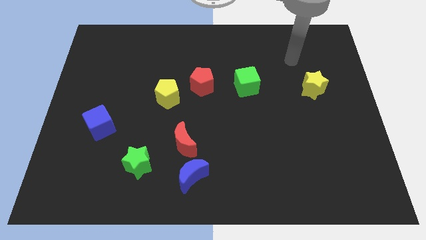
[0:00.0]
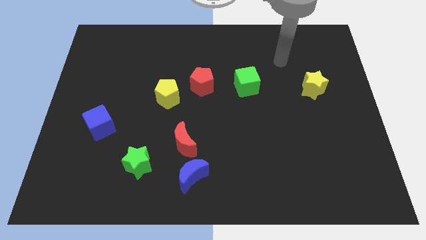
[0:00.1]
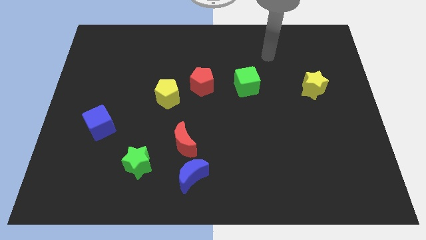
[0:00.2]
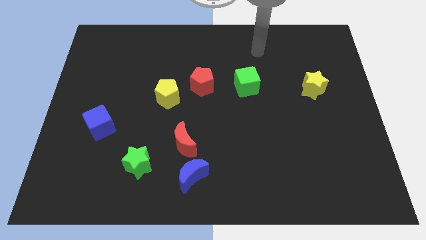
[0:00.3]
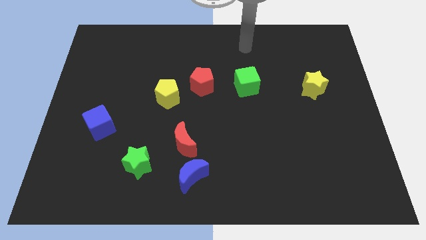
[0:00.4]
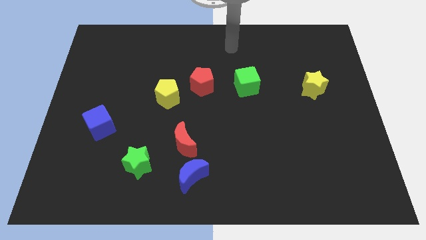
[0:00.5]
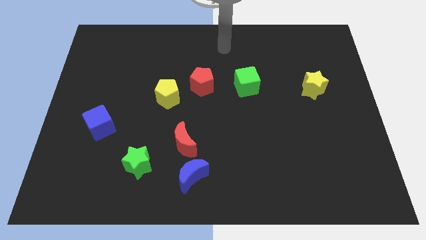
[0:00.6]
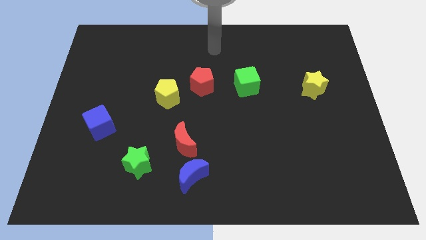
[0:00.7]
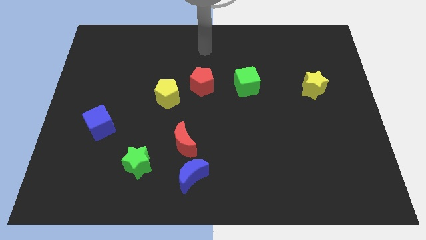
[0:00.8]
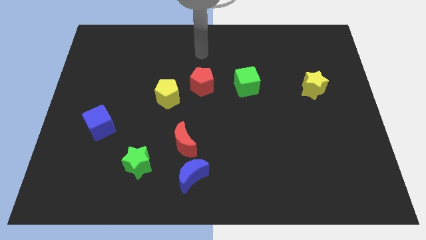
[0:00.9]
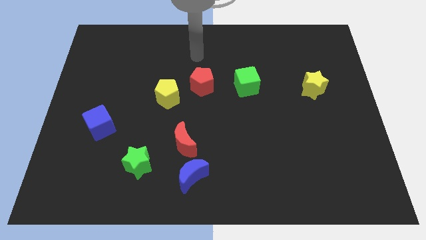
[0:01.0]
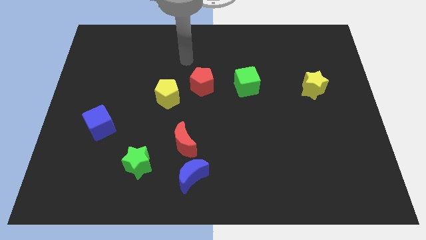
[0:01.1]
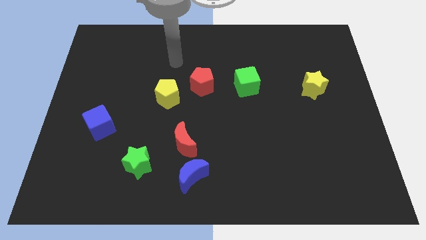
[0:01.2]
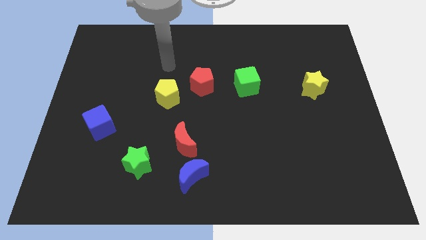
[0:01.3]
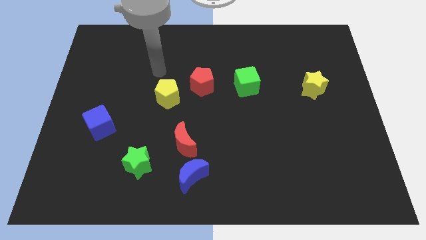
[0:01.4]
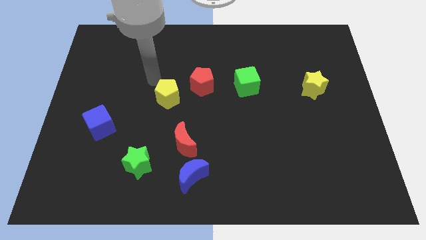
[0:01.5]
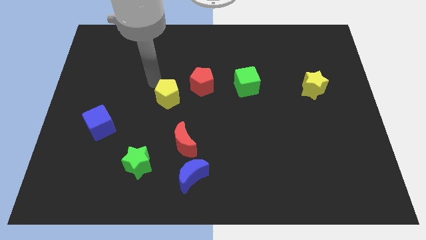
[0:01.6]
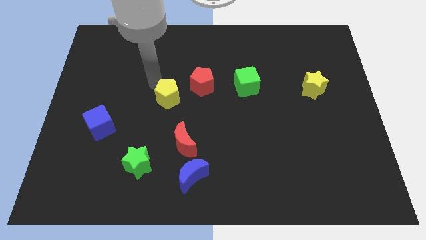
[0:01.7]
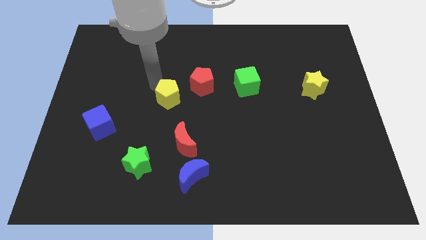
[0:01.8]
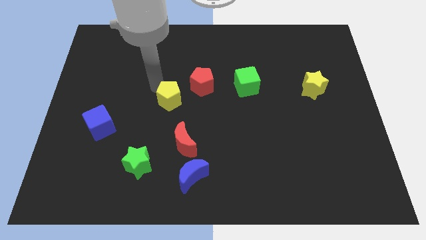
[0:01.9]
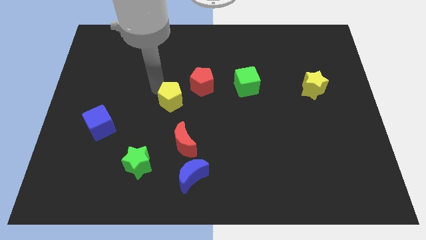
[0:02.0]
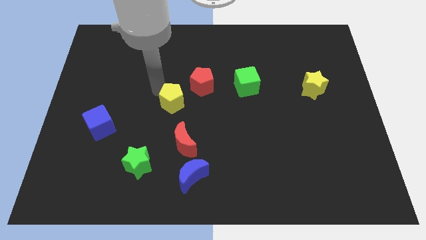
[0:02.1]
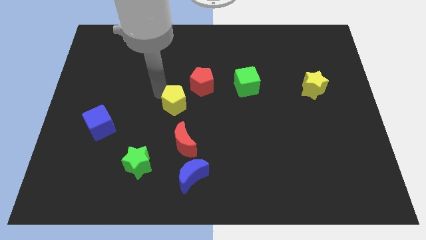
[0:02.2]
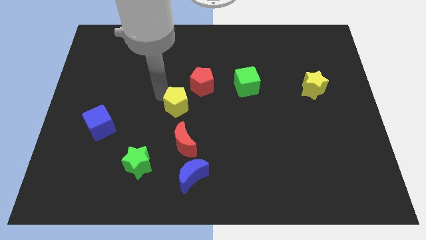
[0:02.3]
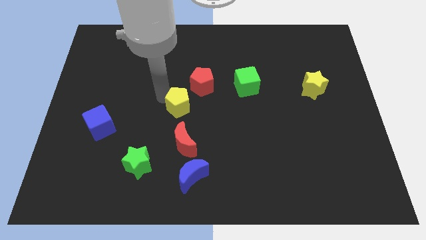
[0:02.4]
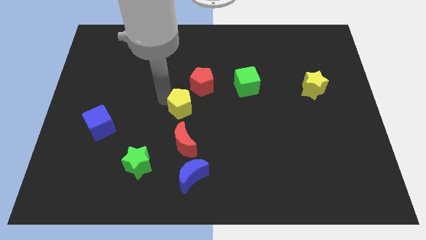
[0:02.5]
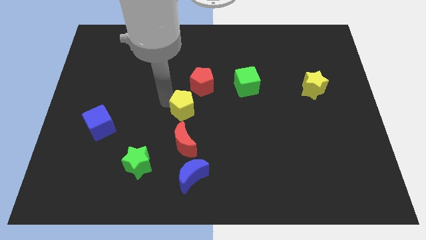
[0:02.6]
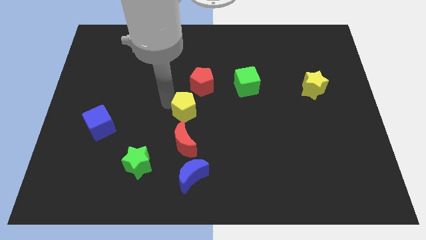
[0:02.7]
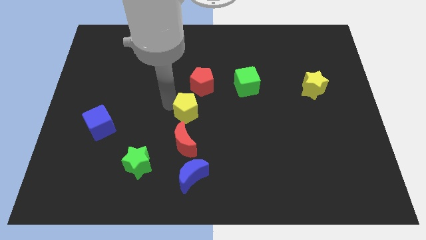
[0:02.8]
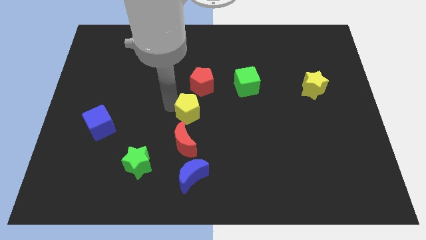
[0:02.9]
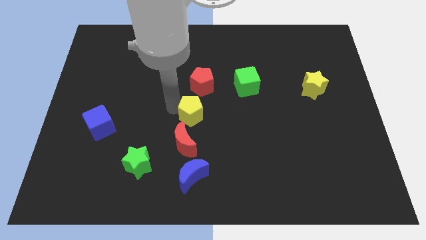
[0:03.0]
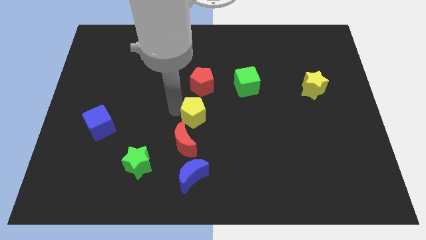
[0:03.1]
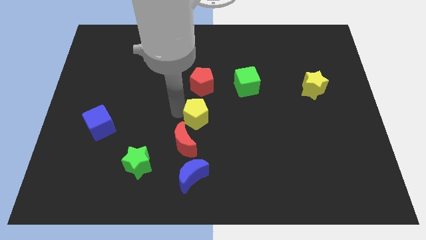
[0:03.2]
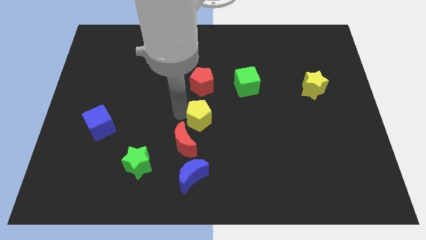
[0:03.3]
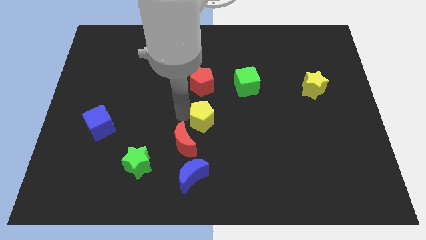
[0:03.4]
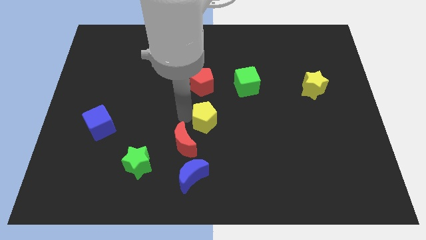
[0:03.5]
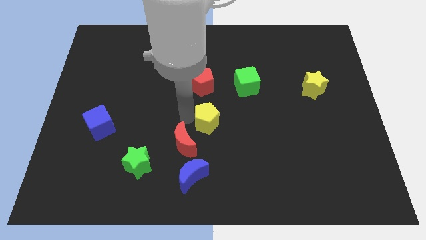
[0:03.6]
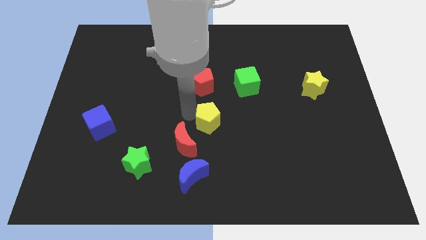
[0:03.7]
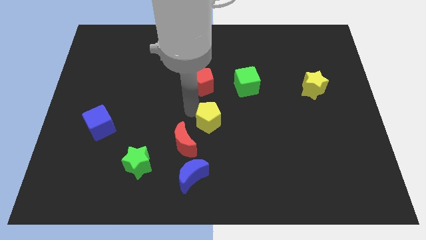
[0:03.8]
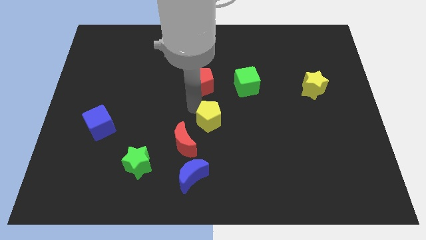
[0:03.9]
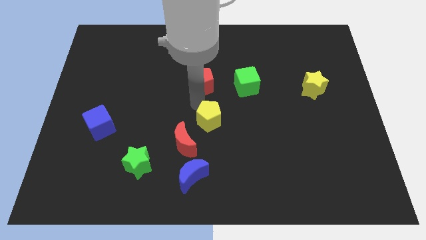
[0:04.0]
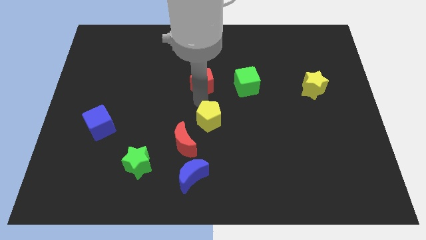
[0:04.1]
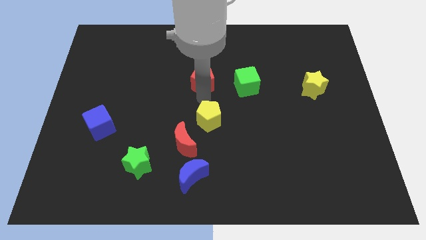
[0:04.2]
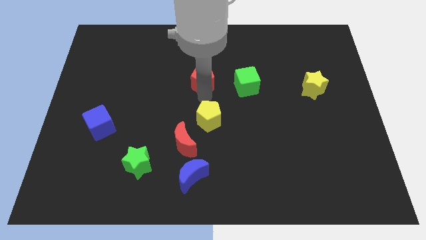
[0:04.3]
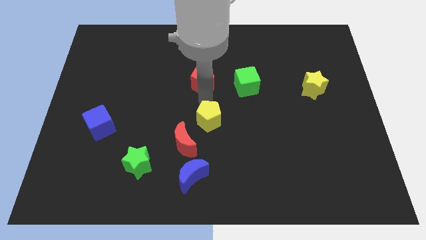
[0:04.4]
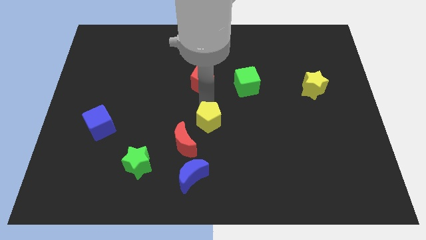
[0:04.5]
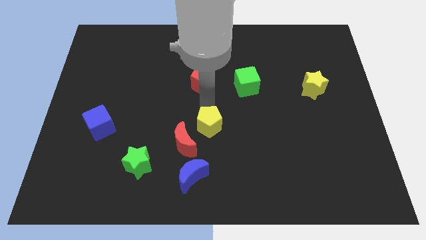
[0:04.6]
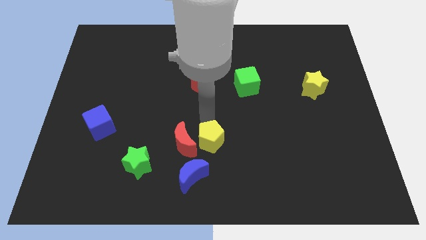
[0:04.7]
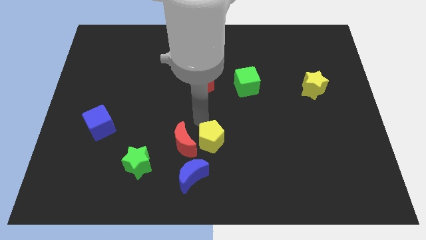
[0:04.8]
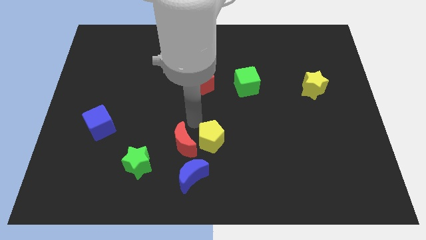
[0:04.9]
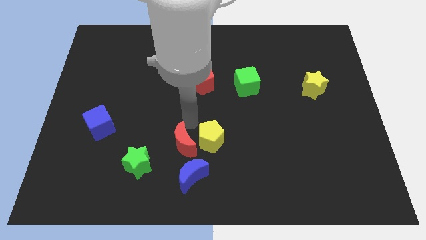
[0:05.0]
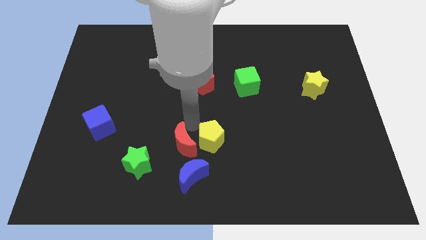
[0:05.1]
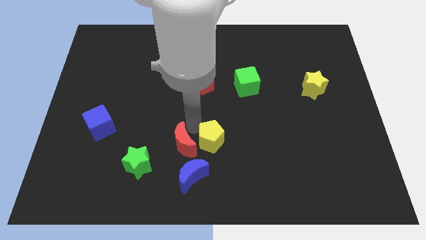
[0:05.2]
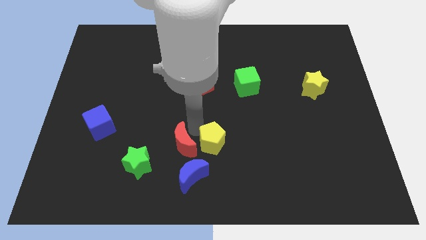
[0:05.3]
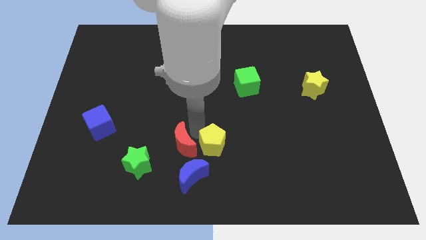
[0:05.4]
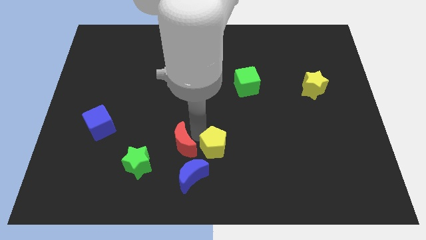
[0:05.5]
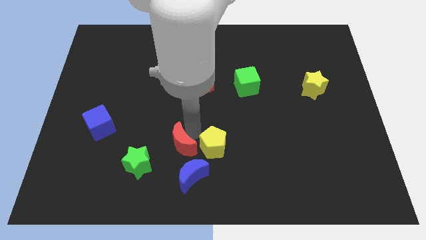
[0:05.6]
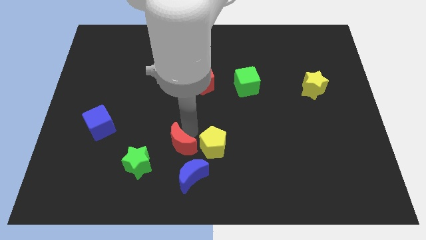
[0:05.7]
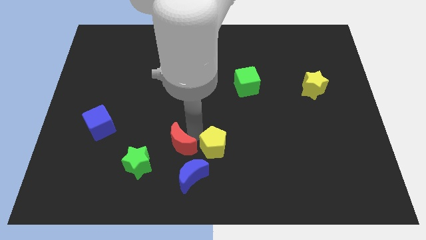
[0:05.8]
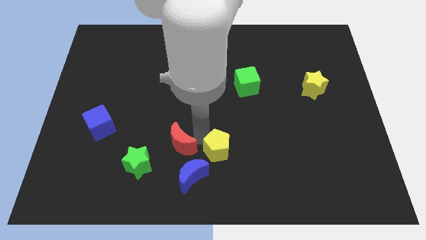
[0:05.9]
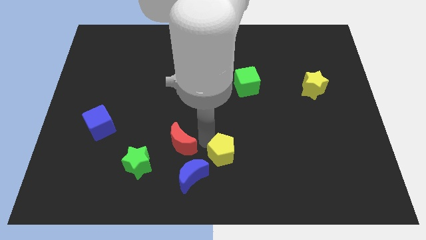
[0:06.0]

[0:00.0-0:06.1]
push the yellow pentagon down and to the right diagonally

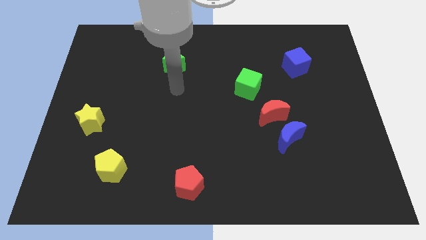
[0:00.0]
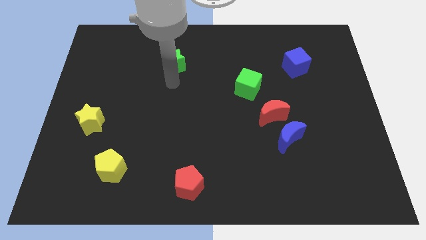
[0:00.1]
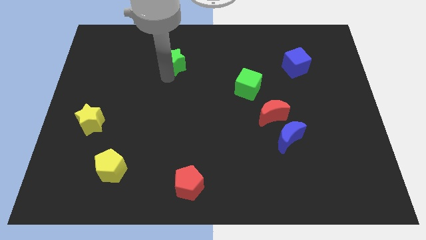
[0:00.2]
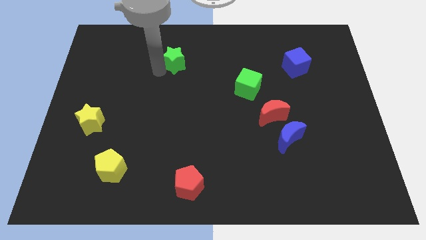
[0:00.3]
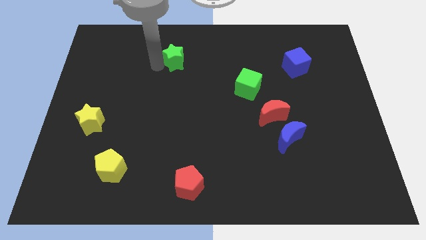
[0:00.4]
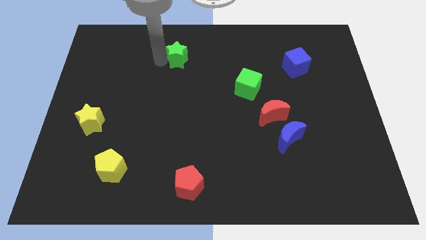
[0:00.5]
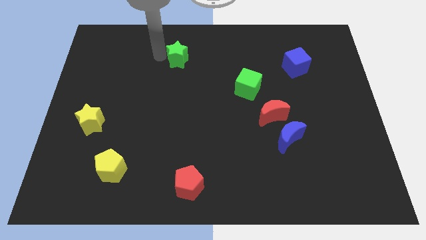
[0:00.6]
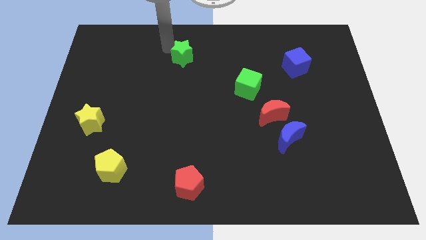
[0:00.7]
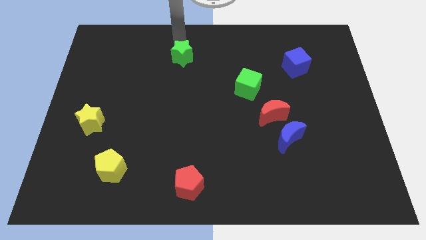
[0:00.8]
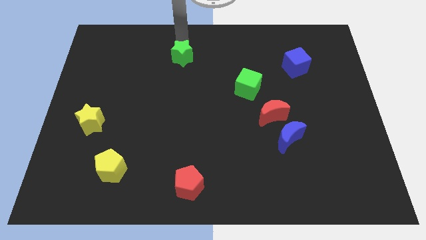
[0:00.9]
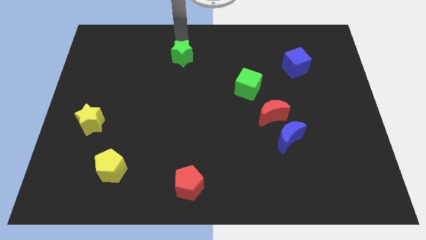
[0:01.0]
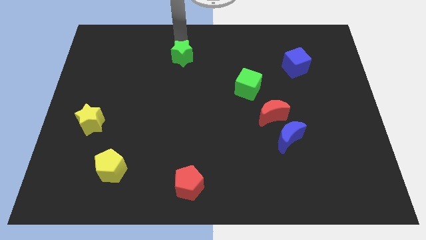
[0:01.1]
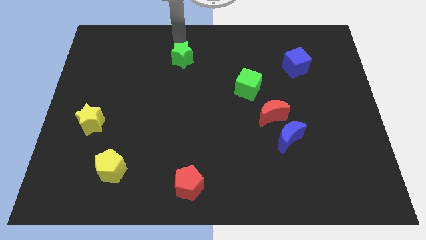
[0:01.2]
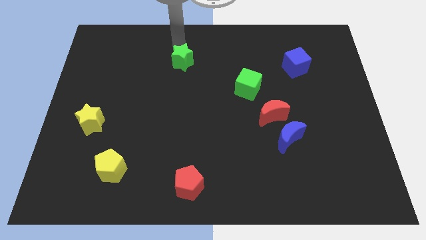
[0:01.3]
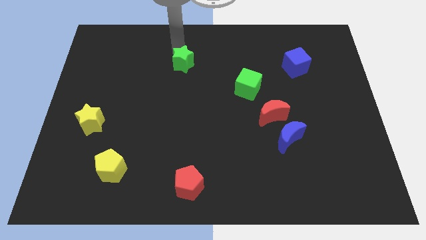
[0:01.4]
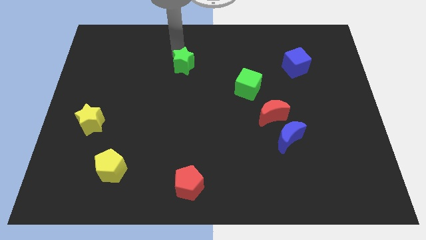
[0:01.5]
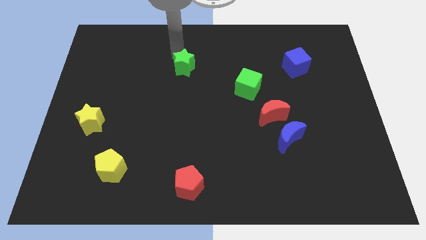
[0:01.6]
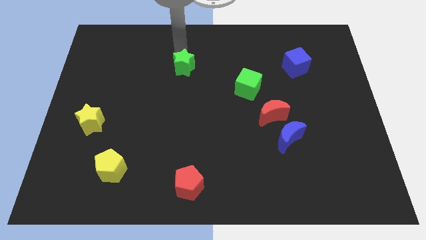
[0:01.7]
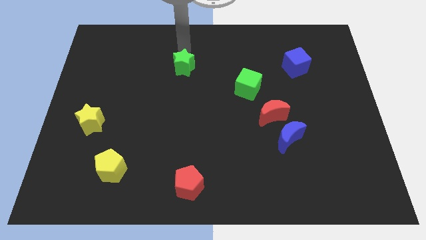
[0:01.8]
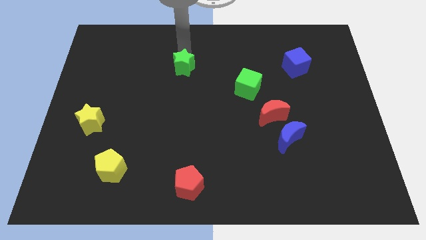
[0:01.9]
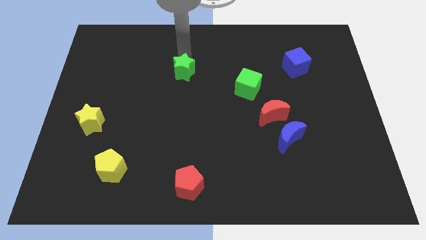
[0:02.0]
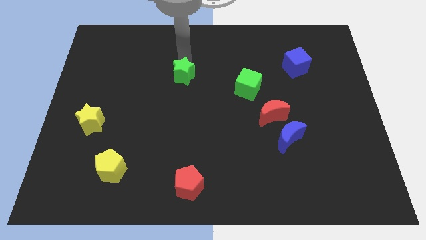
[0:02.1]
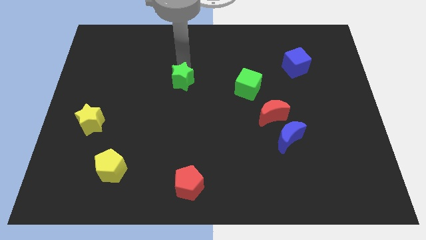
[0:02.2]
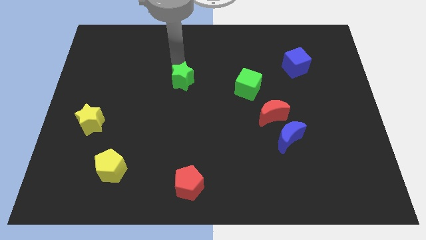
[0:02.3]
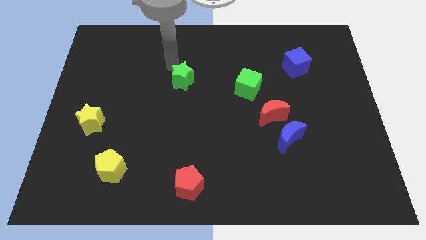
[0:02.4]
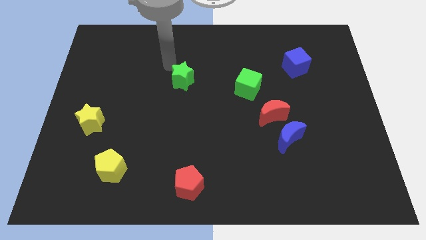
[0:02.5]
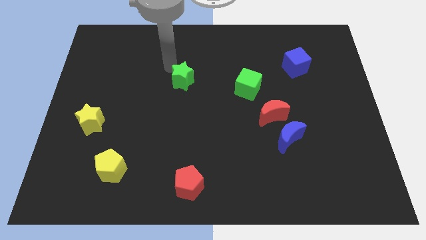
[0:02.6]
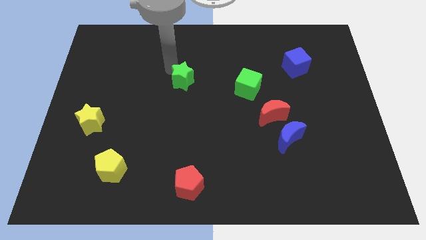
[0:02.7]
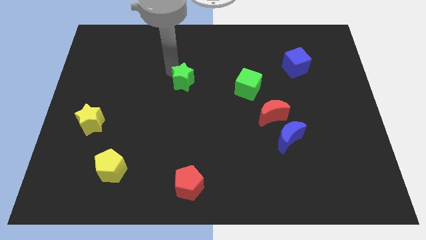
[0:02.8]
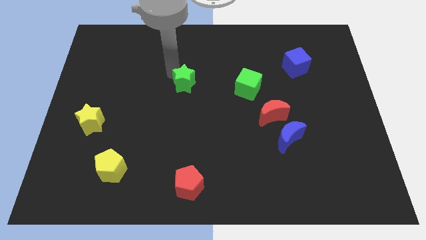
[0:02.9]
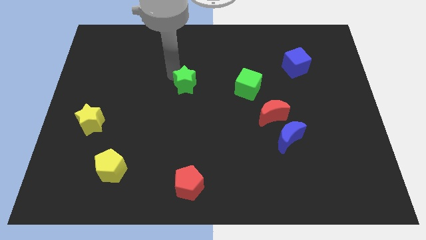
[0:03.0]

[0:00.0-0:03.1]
slide the green star diagonally down and to the right somewhat
